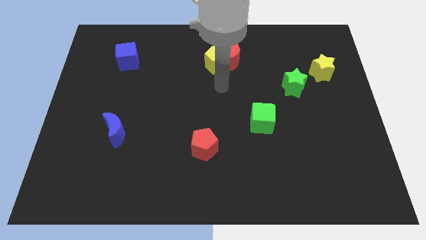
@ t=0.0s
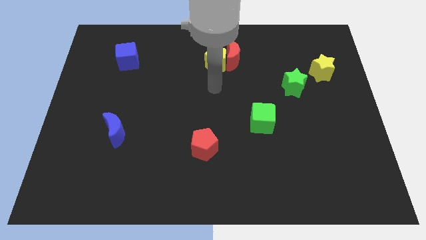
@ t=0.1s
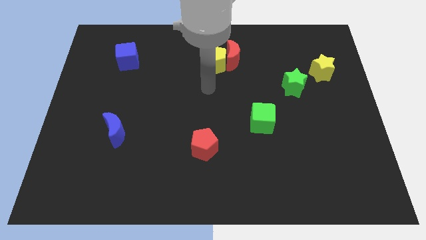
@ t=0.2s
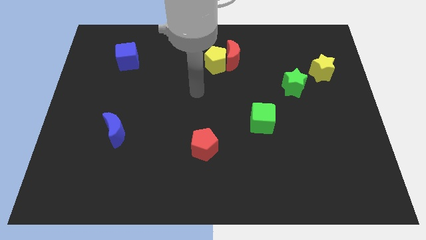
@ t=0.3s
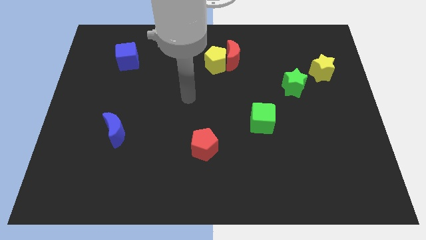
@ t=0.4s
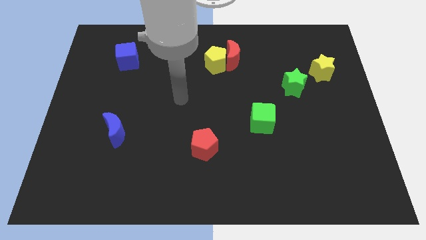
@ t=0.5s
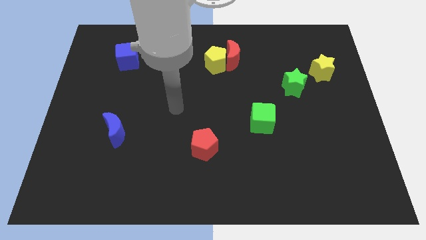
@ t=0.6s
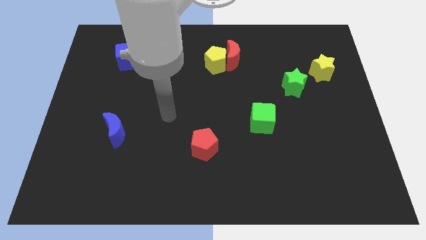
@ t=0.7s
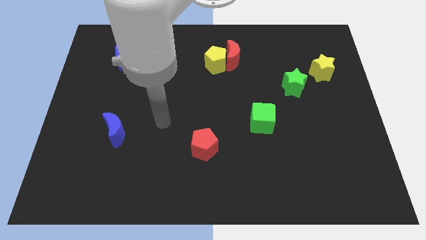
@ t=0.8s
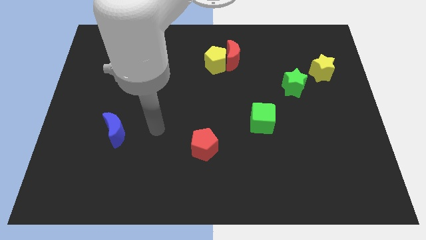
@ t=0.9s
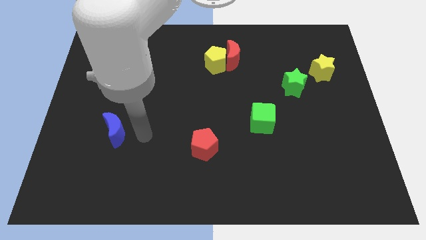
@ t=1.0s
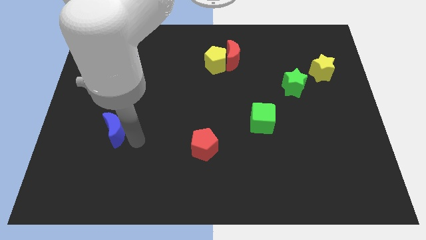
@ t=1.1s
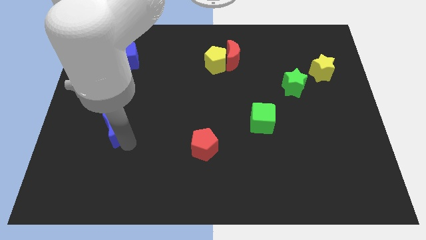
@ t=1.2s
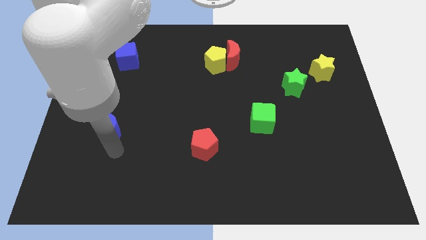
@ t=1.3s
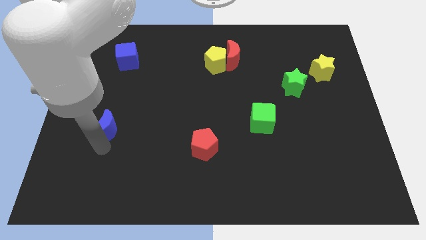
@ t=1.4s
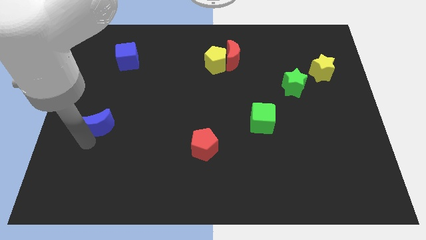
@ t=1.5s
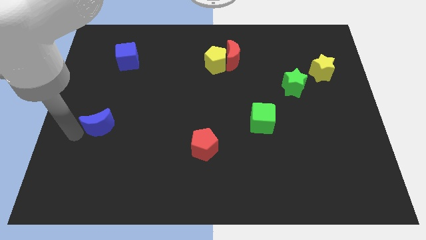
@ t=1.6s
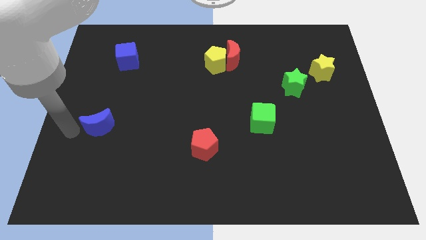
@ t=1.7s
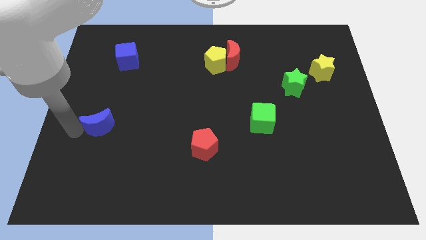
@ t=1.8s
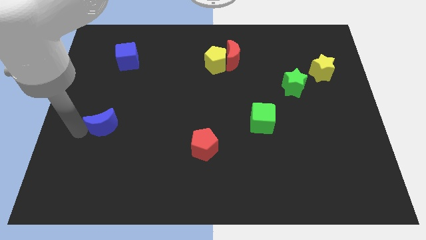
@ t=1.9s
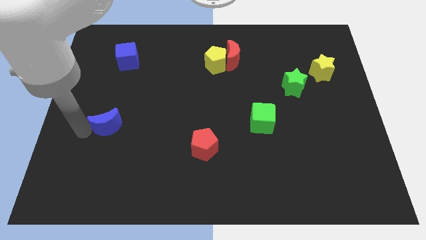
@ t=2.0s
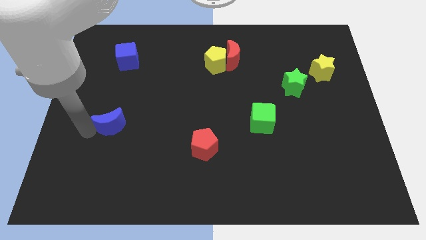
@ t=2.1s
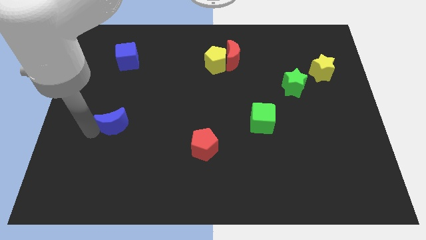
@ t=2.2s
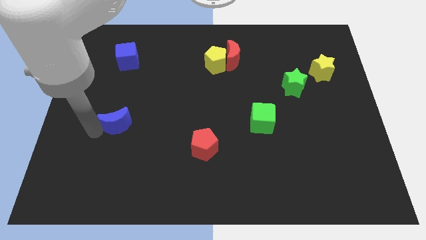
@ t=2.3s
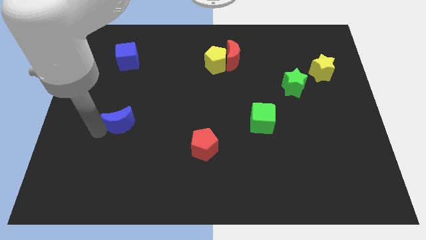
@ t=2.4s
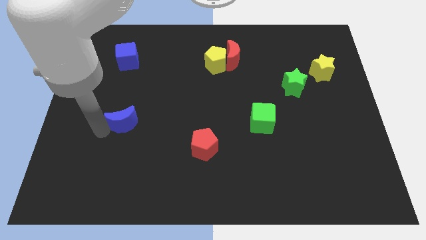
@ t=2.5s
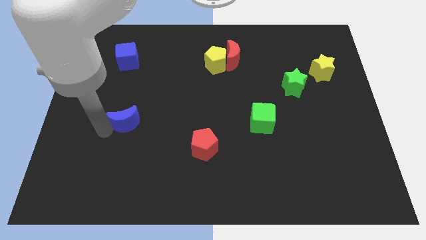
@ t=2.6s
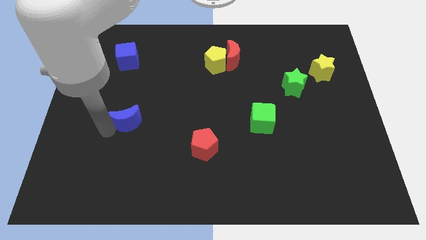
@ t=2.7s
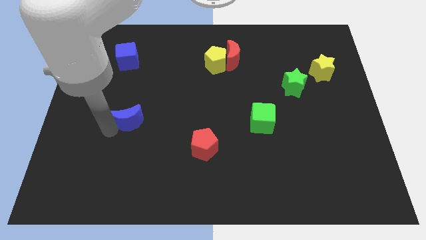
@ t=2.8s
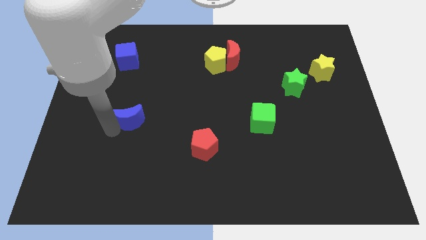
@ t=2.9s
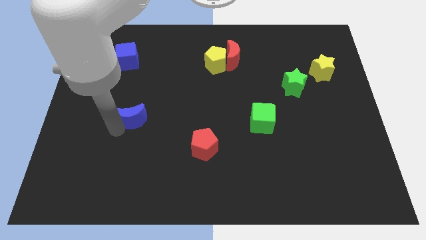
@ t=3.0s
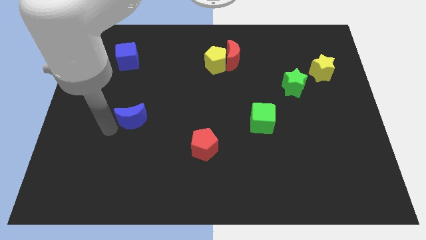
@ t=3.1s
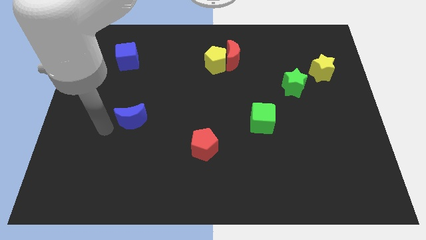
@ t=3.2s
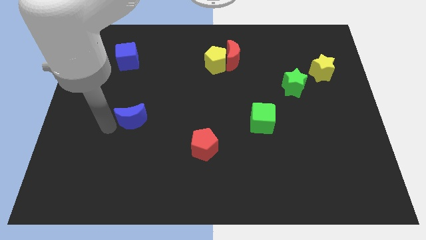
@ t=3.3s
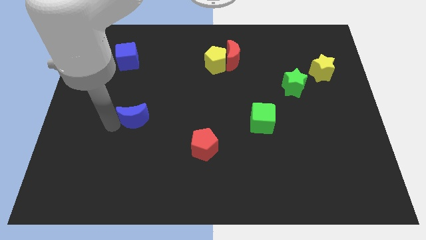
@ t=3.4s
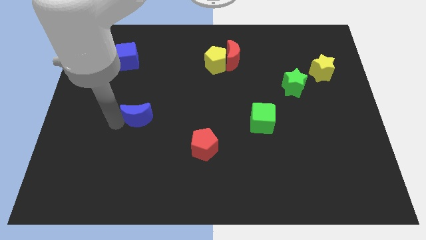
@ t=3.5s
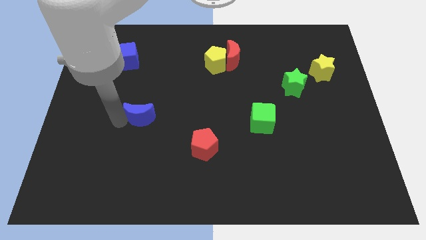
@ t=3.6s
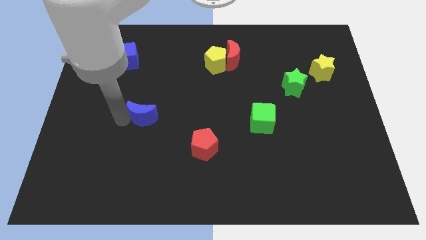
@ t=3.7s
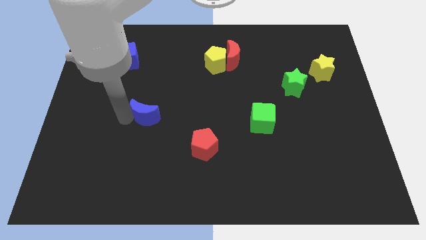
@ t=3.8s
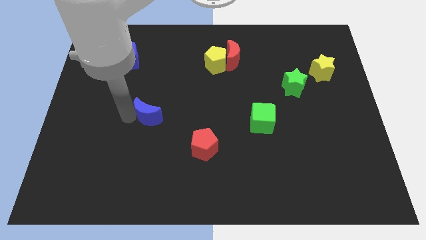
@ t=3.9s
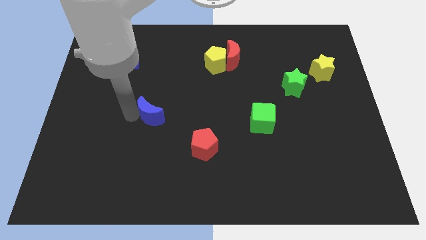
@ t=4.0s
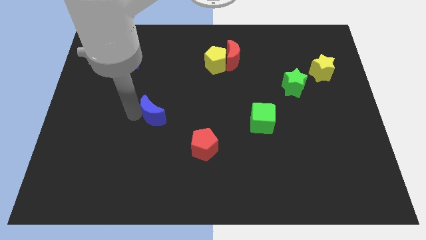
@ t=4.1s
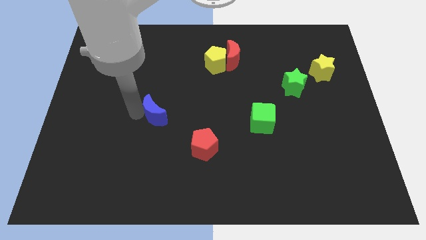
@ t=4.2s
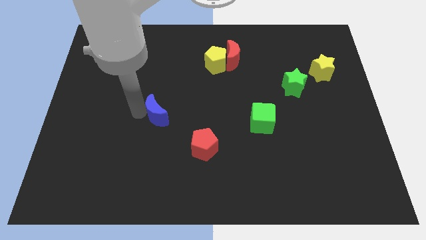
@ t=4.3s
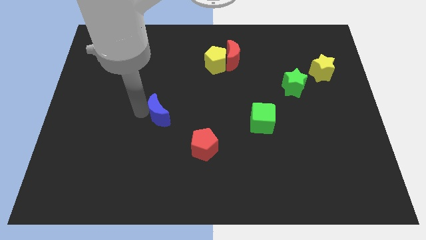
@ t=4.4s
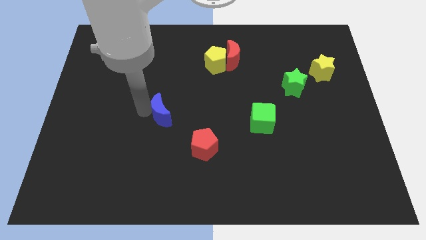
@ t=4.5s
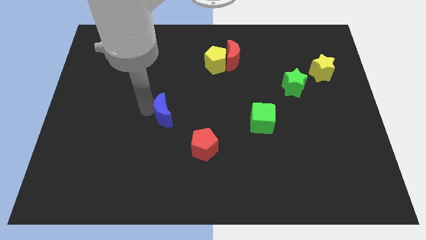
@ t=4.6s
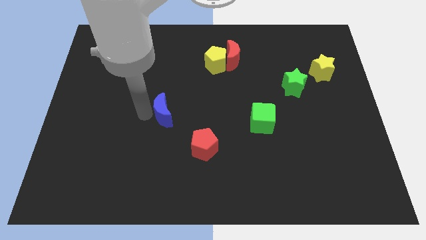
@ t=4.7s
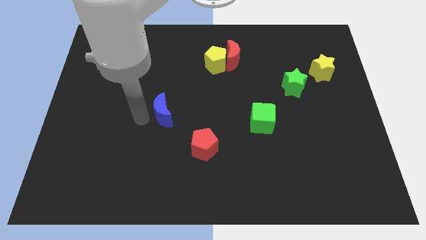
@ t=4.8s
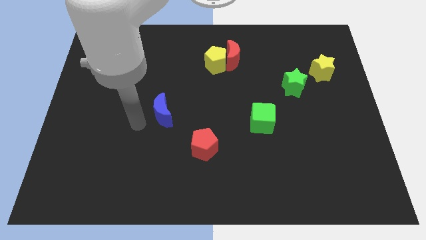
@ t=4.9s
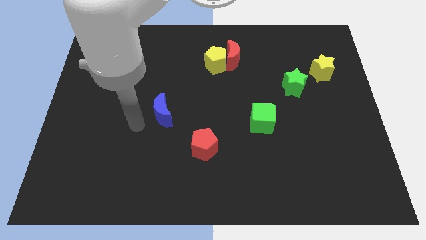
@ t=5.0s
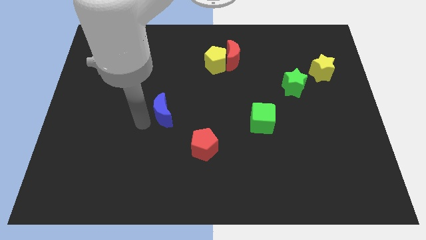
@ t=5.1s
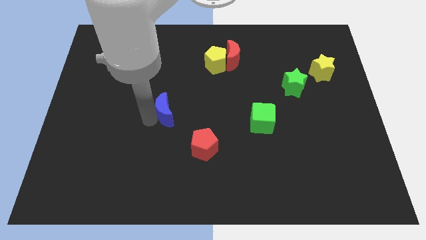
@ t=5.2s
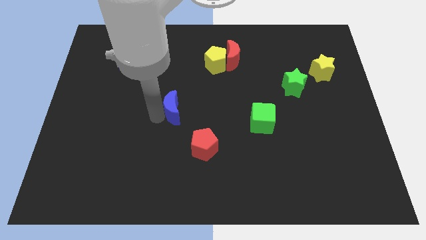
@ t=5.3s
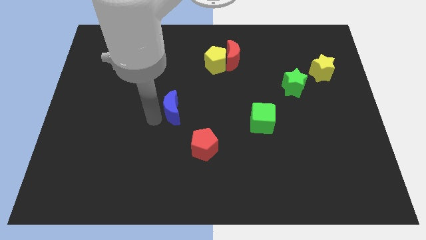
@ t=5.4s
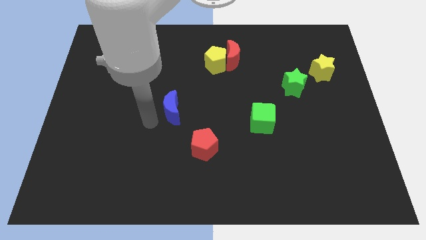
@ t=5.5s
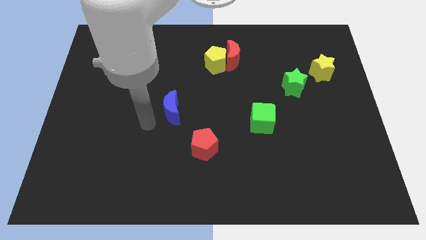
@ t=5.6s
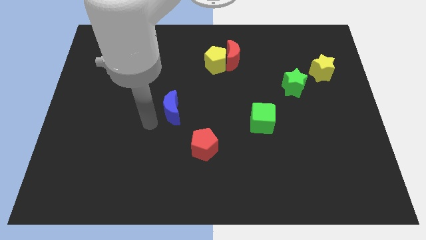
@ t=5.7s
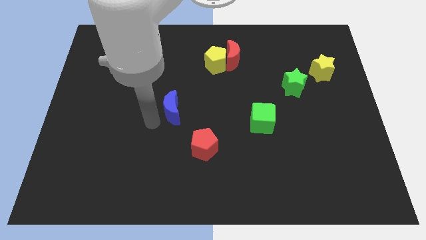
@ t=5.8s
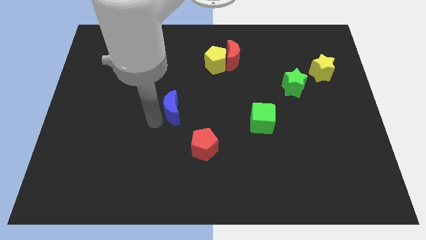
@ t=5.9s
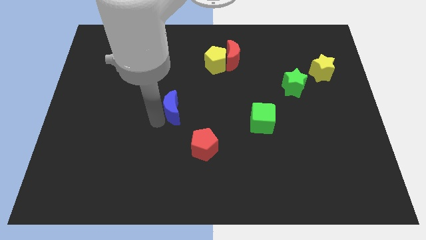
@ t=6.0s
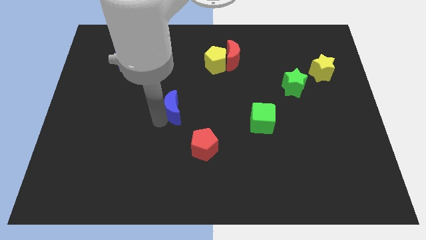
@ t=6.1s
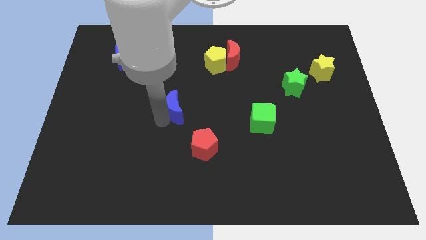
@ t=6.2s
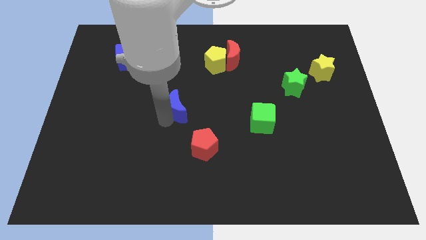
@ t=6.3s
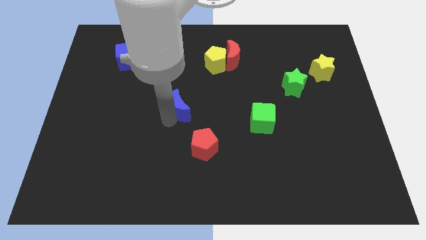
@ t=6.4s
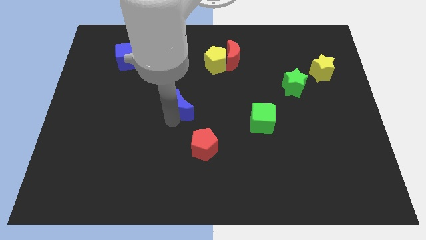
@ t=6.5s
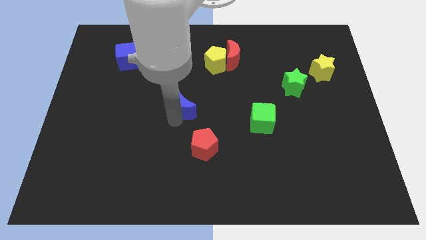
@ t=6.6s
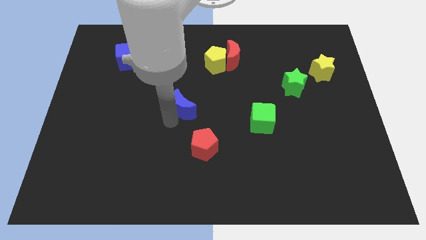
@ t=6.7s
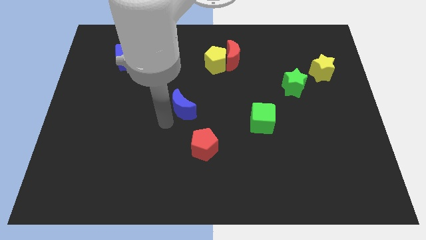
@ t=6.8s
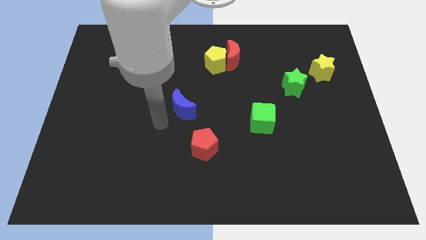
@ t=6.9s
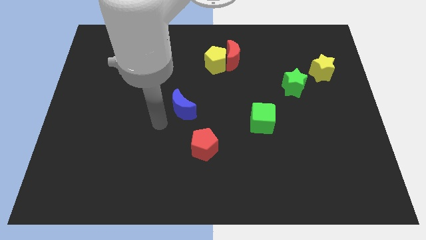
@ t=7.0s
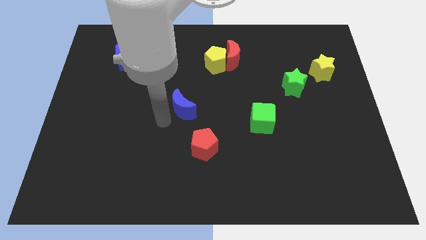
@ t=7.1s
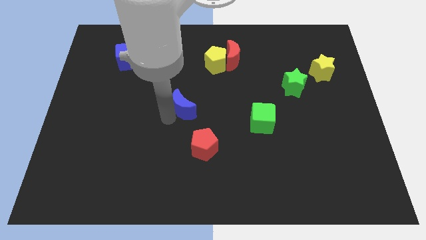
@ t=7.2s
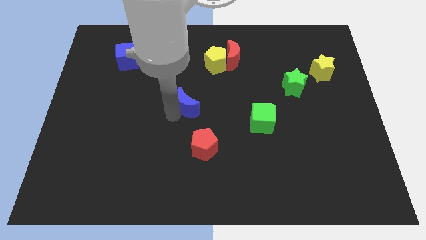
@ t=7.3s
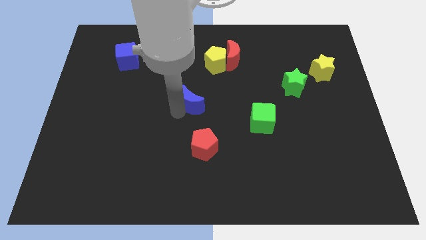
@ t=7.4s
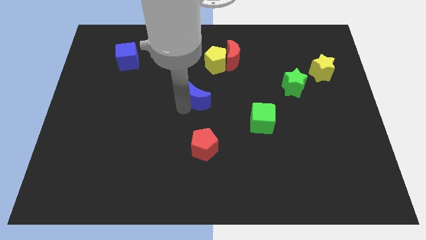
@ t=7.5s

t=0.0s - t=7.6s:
move the blue moon to the bottom of the yellow pentagon
